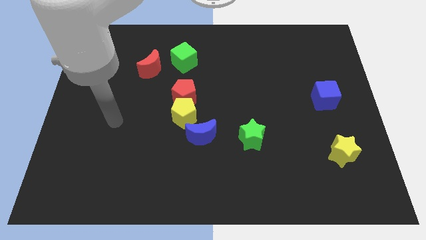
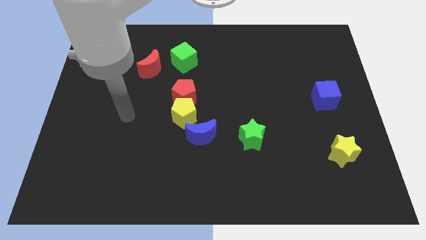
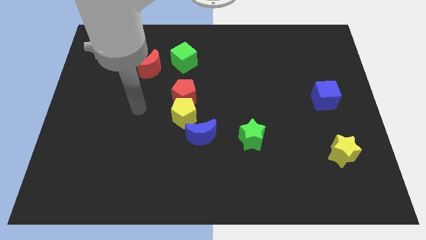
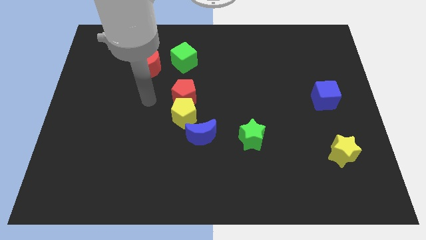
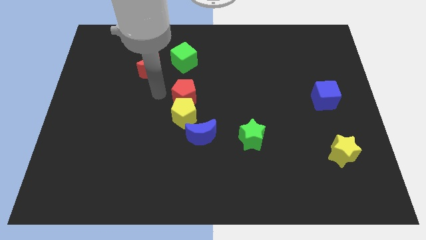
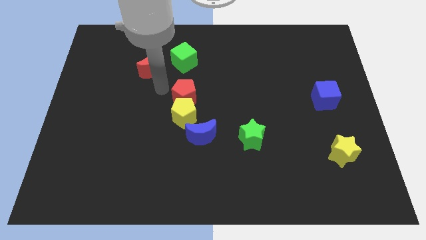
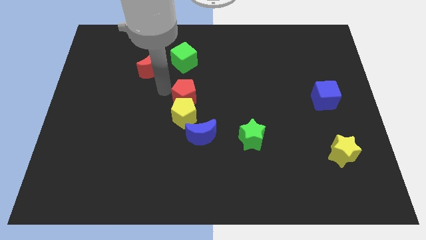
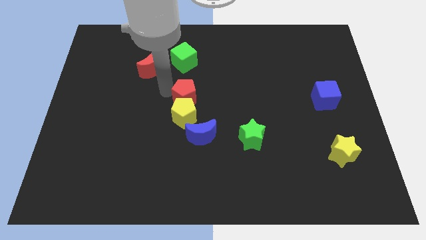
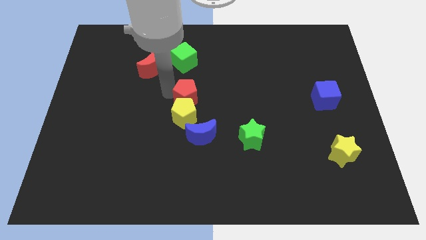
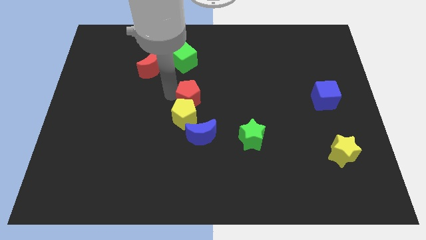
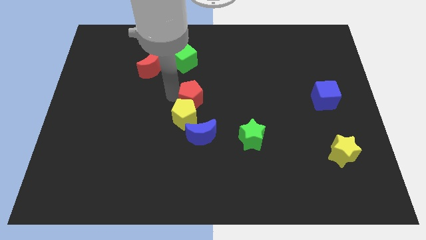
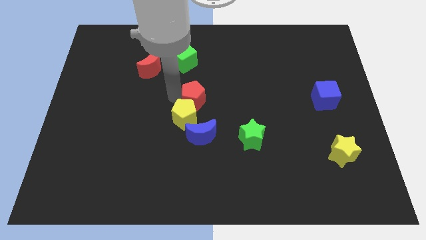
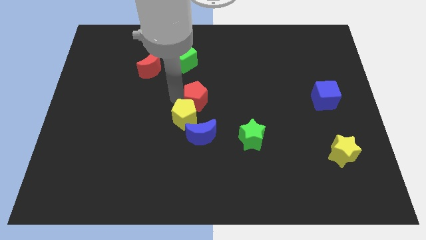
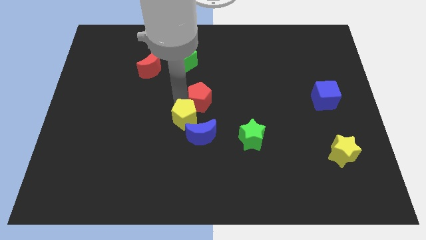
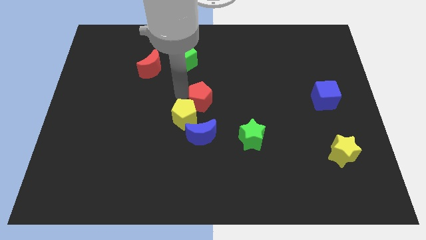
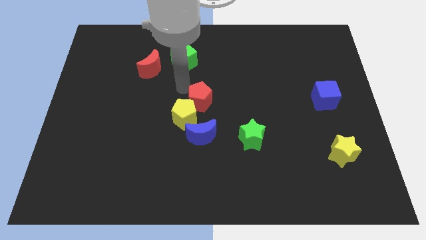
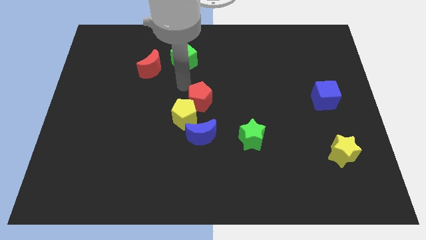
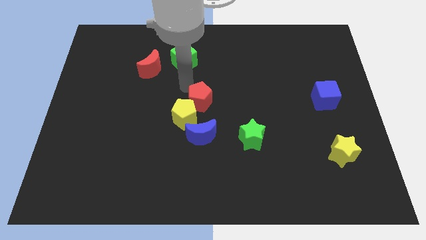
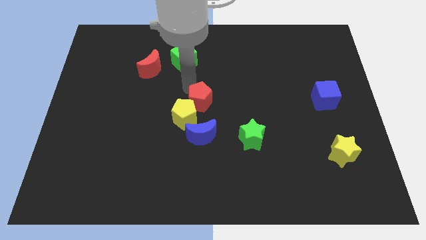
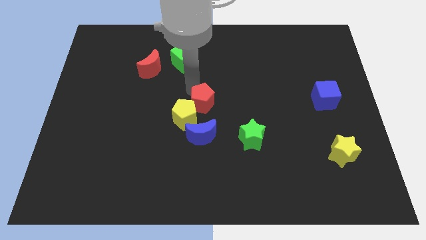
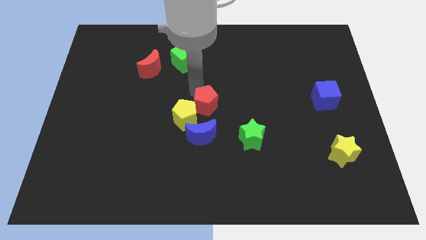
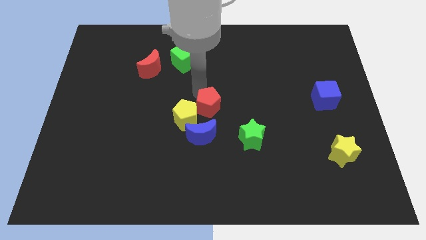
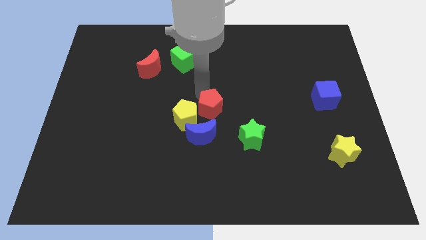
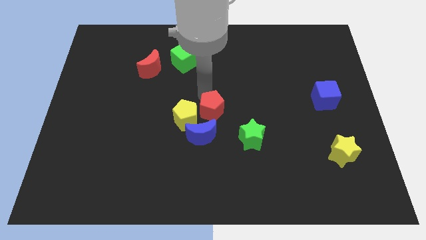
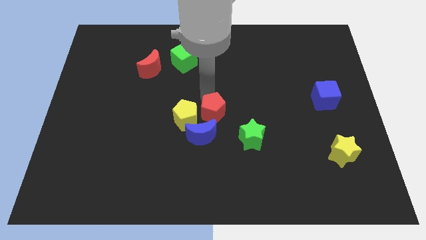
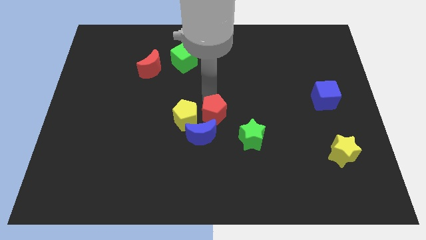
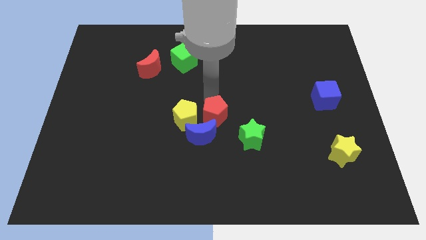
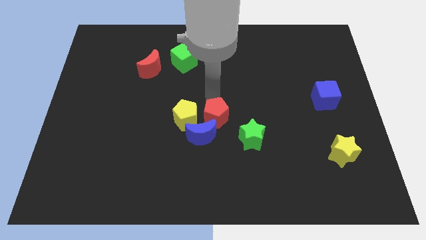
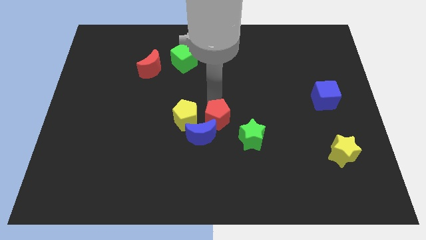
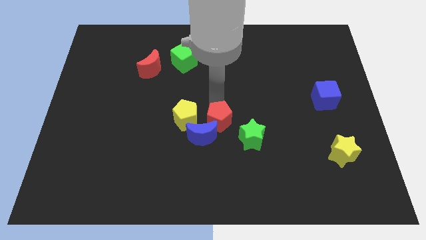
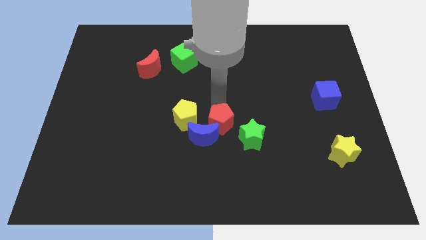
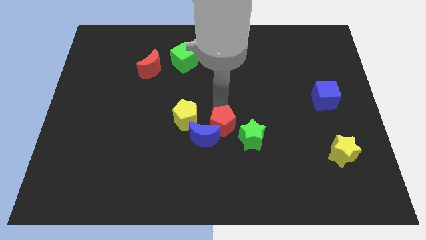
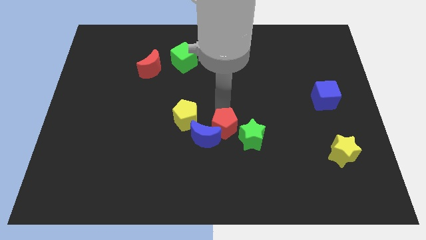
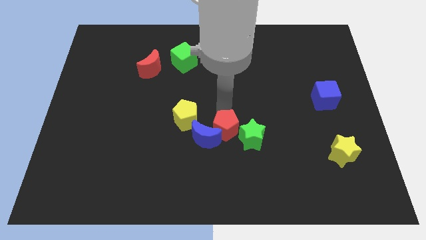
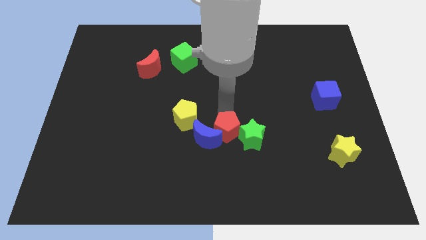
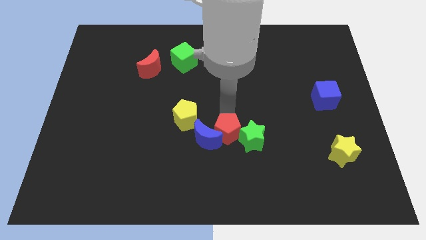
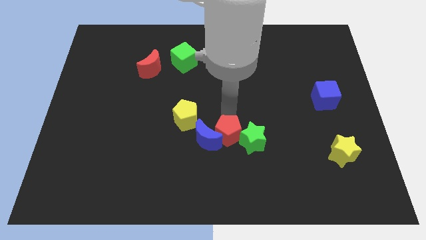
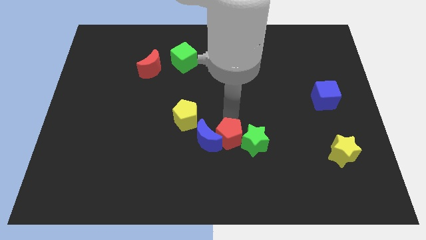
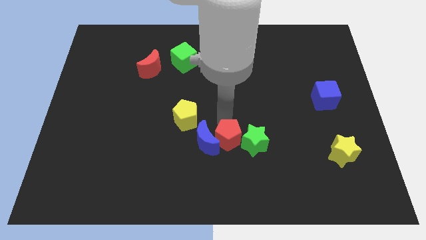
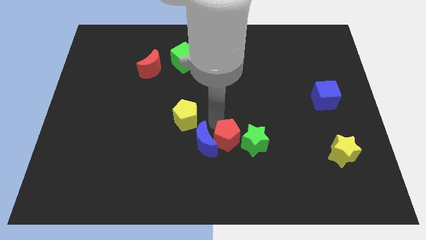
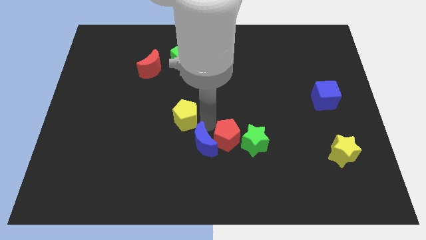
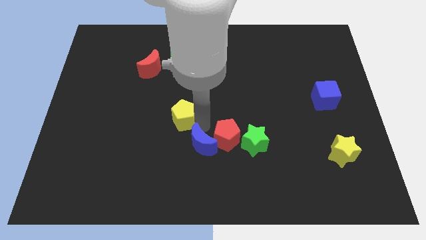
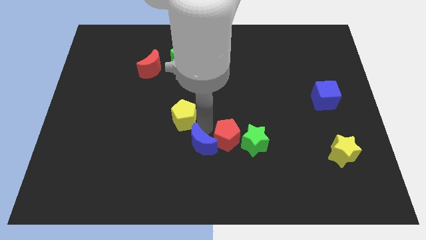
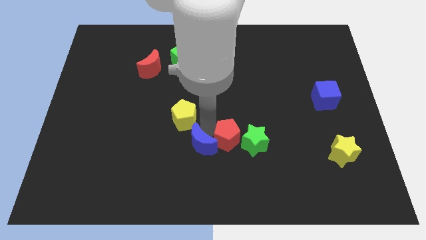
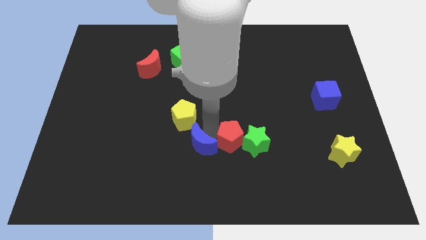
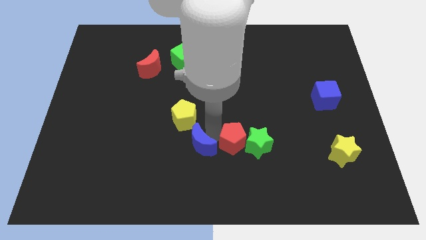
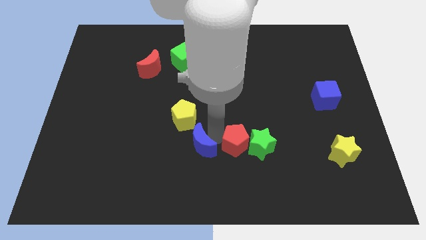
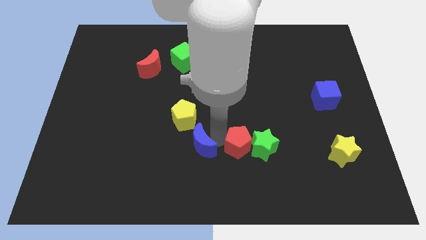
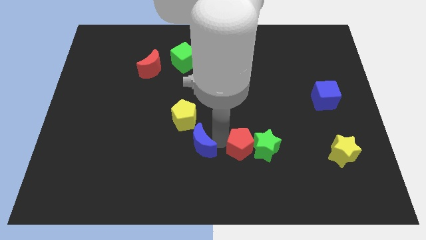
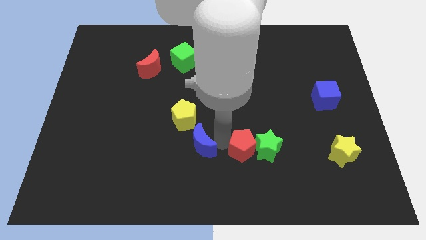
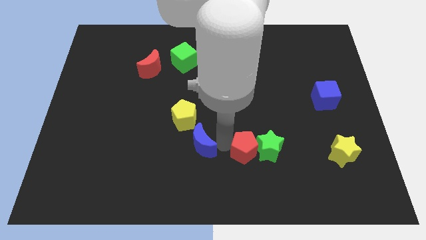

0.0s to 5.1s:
move the red pentagon downwards and to the right

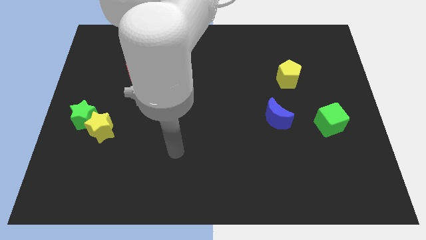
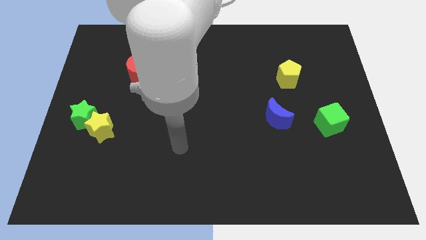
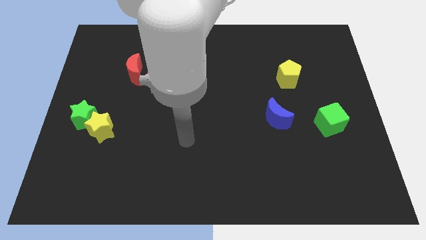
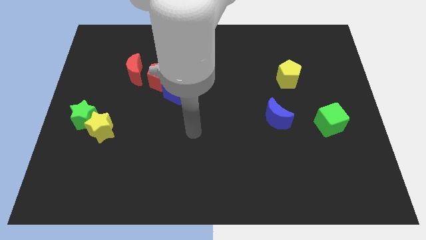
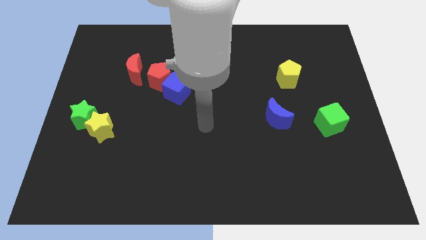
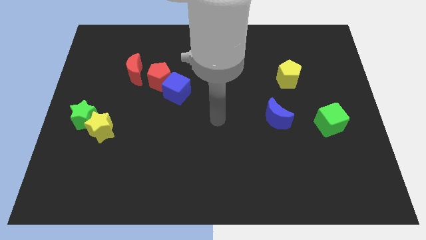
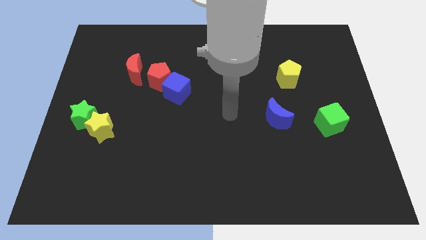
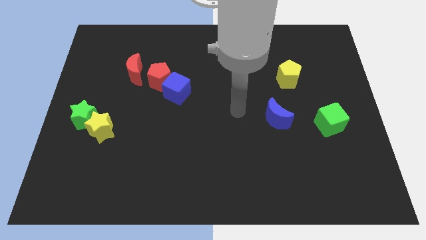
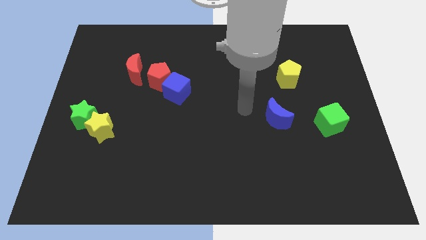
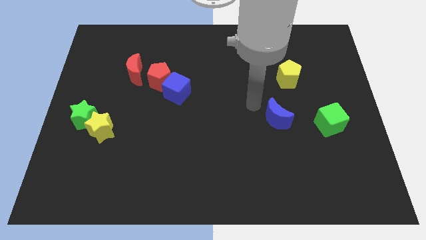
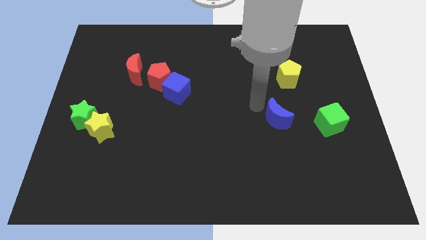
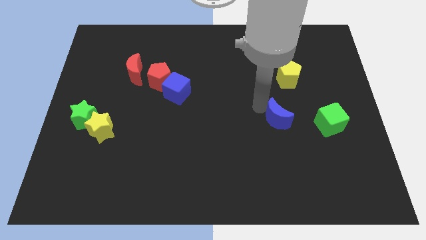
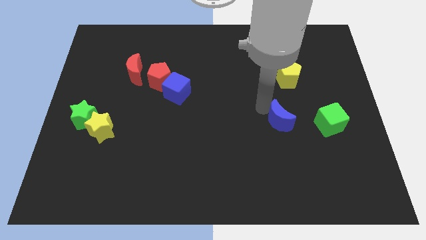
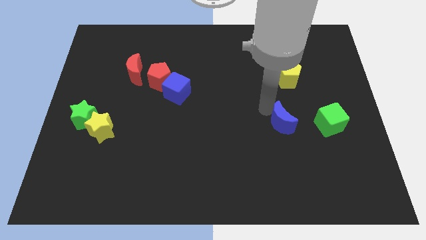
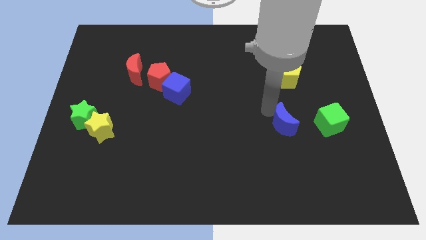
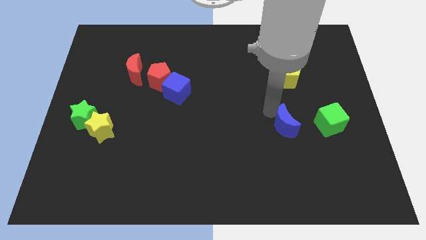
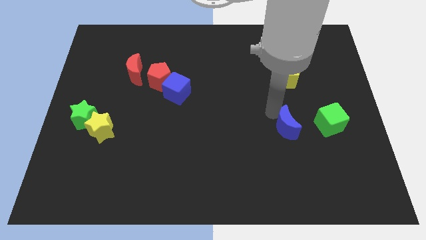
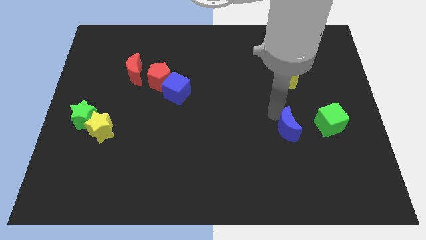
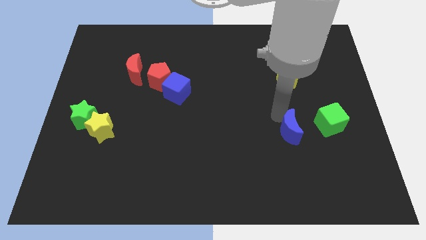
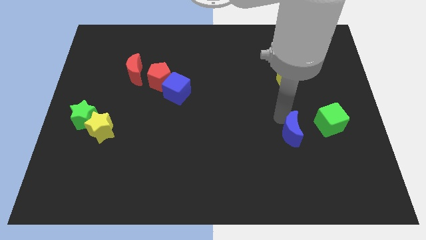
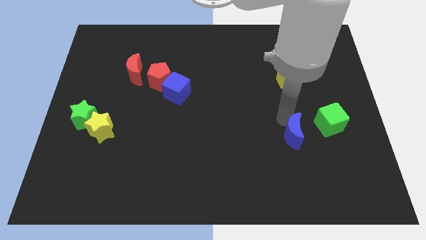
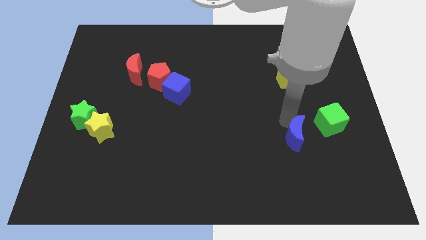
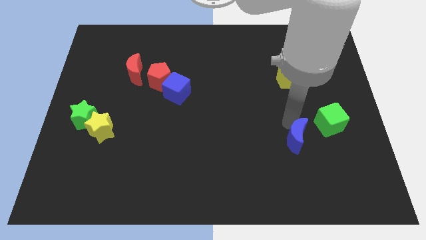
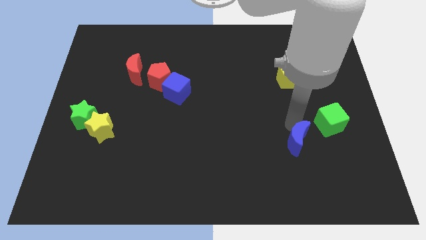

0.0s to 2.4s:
slightly push the blue moon downwards and then to the right

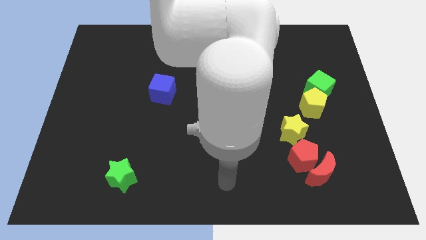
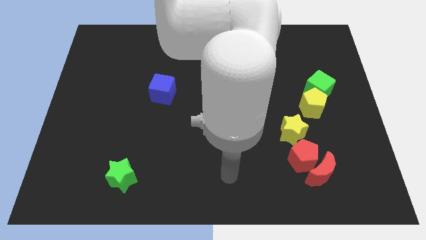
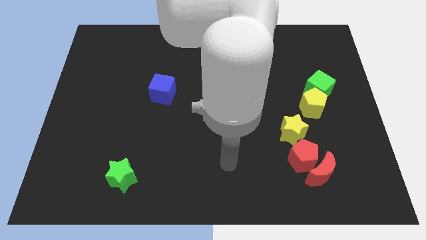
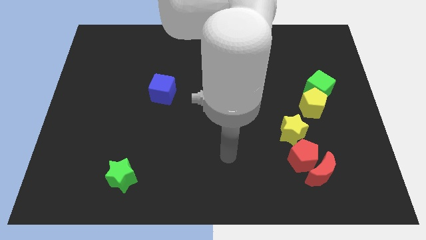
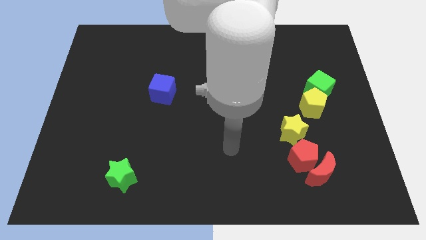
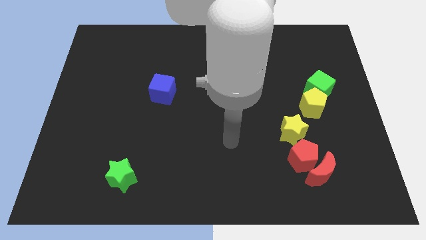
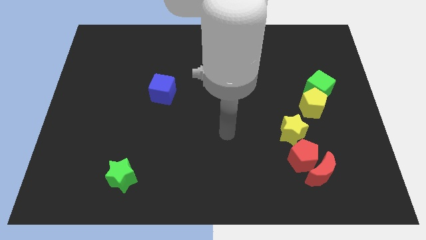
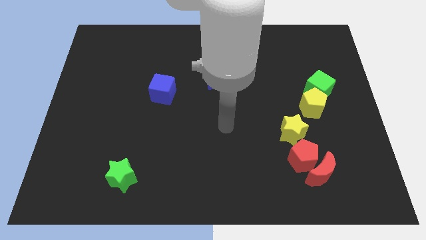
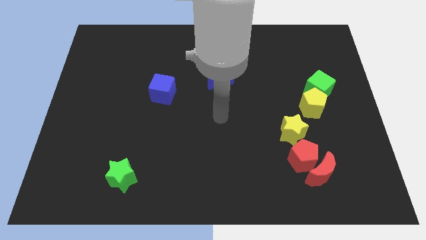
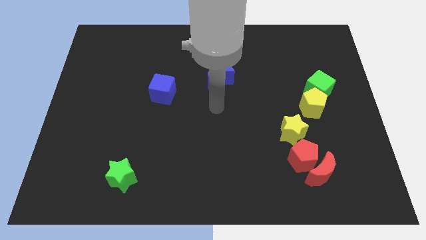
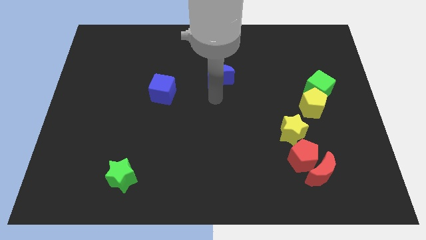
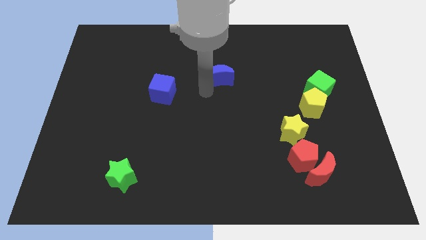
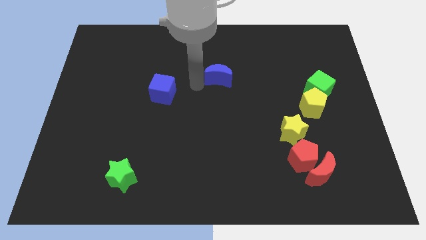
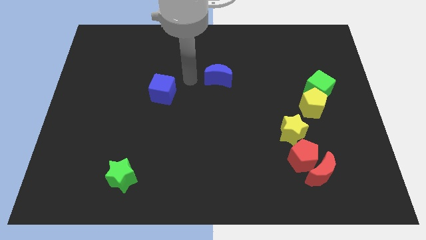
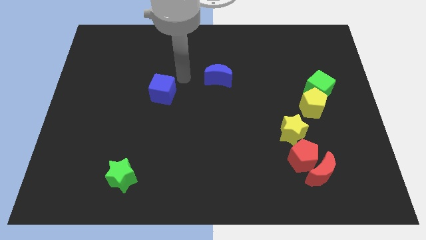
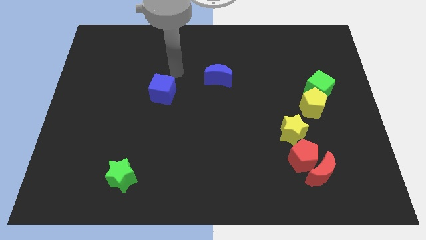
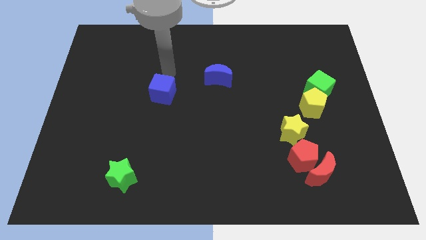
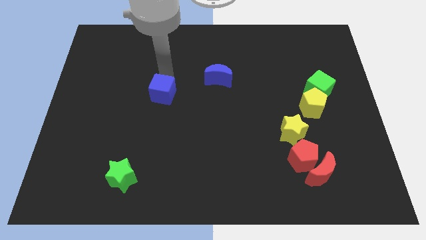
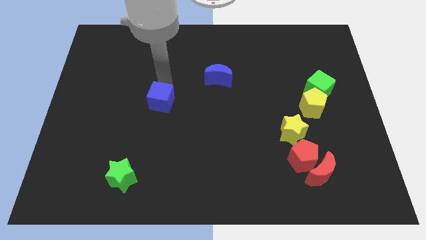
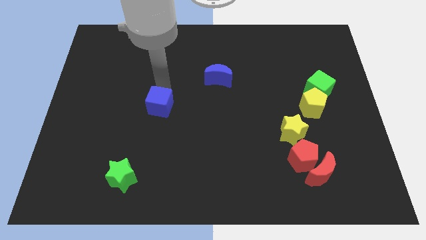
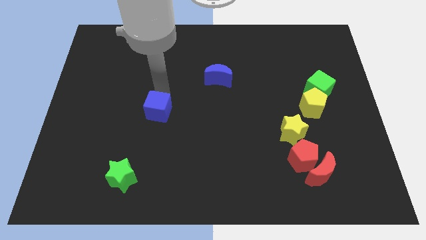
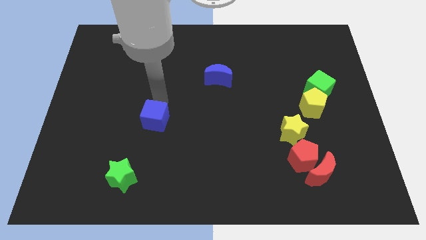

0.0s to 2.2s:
slightly move the blue cube down
